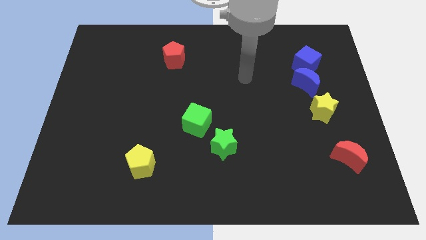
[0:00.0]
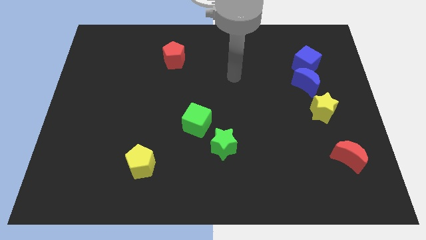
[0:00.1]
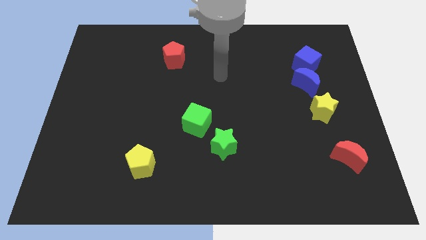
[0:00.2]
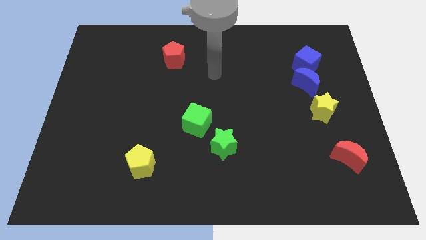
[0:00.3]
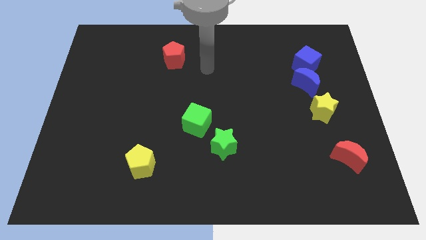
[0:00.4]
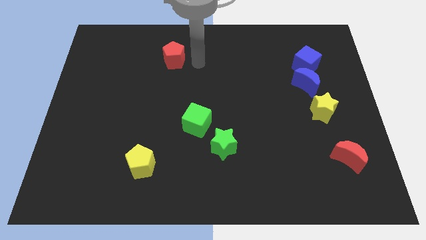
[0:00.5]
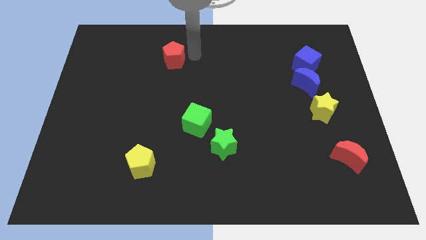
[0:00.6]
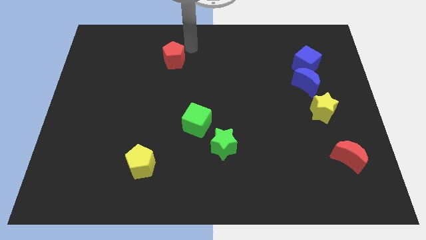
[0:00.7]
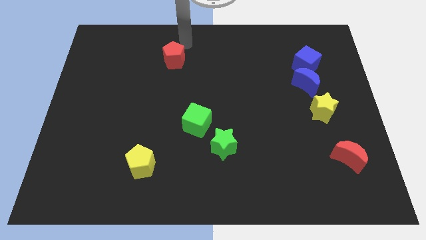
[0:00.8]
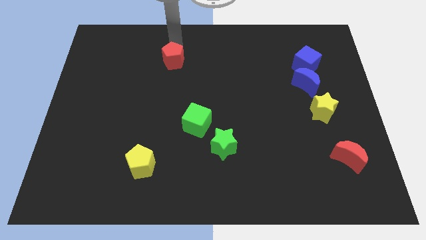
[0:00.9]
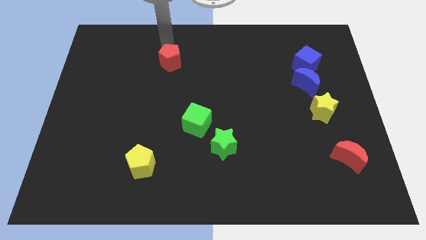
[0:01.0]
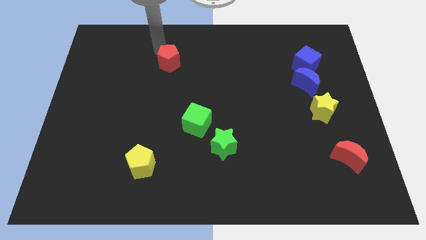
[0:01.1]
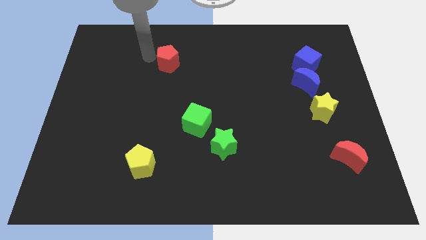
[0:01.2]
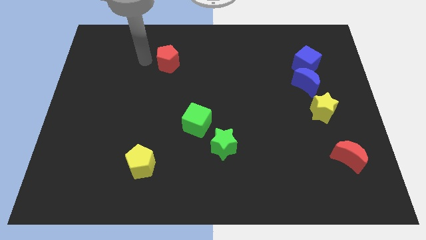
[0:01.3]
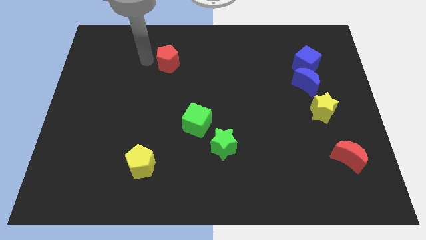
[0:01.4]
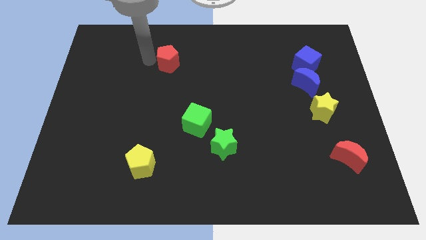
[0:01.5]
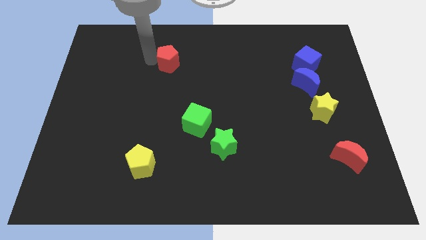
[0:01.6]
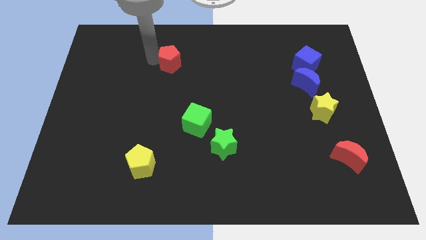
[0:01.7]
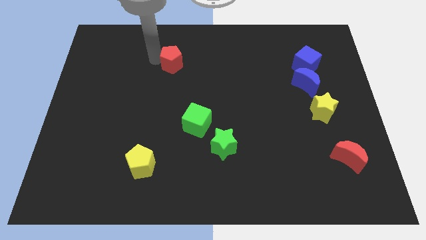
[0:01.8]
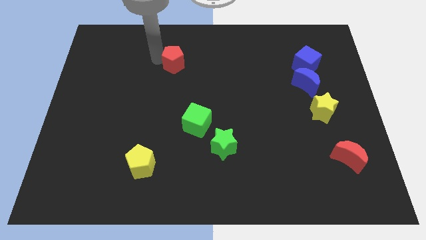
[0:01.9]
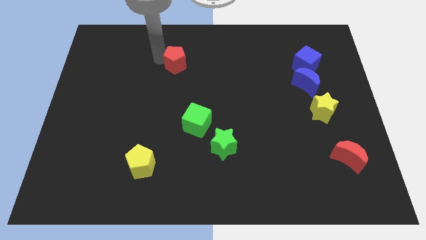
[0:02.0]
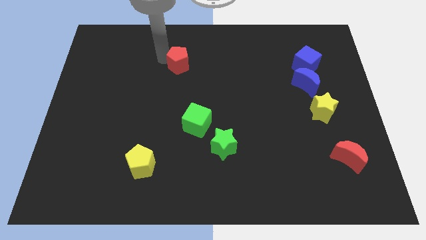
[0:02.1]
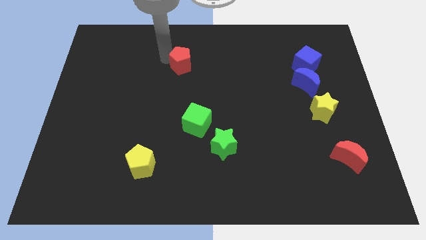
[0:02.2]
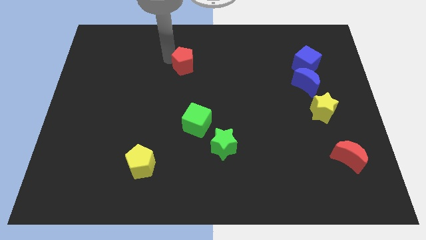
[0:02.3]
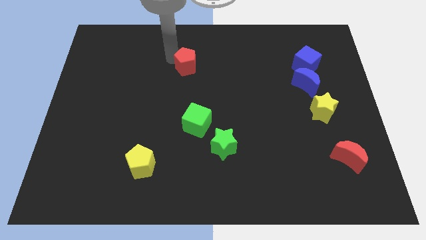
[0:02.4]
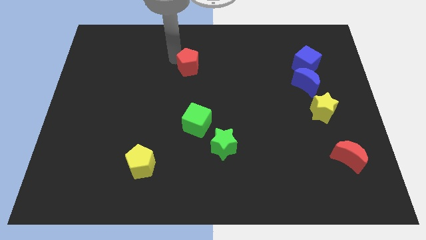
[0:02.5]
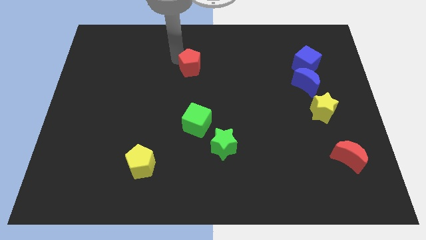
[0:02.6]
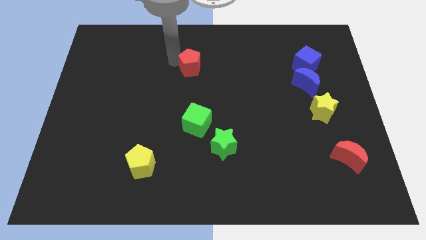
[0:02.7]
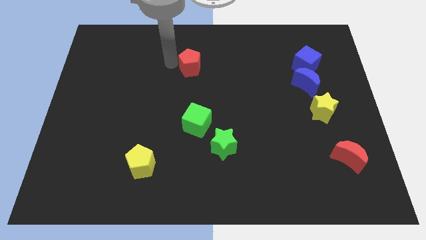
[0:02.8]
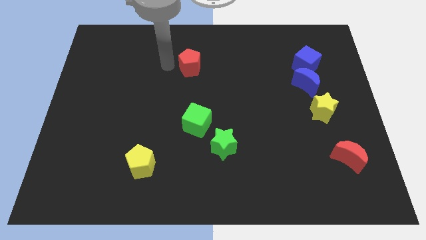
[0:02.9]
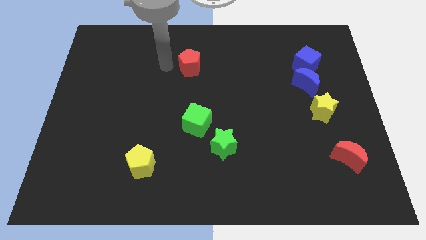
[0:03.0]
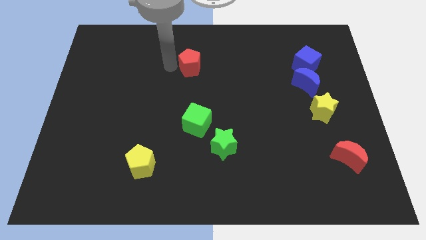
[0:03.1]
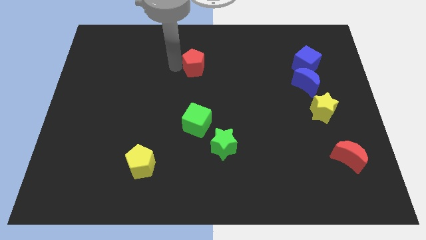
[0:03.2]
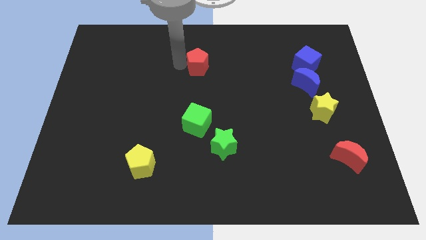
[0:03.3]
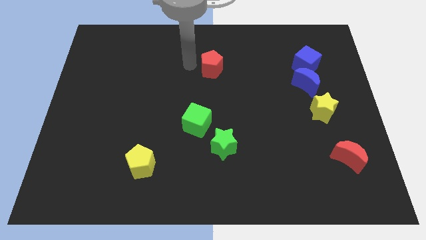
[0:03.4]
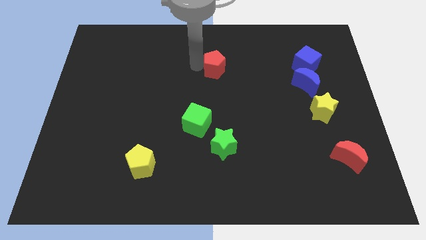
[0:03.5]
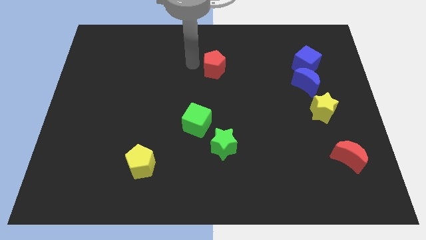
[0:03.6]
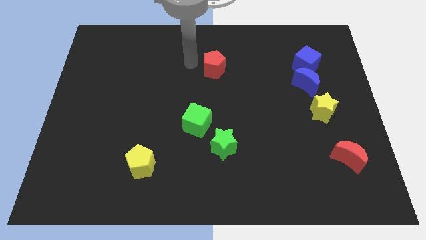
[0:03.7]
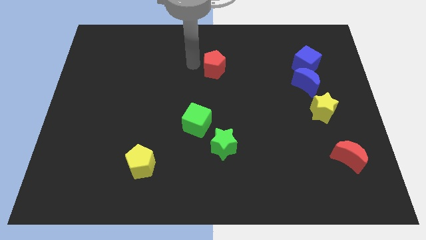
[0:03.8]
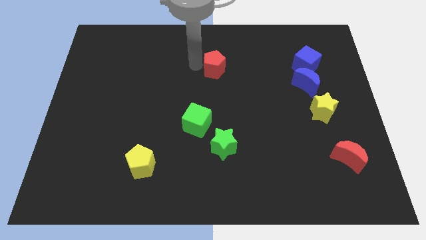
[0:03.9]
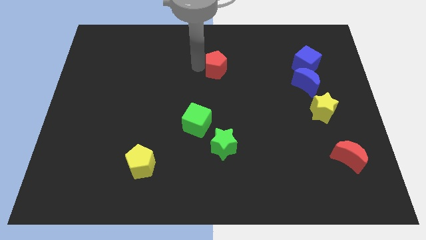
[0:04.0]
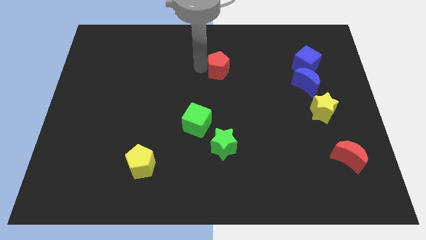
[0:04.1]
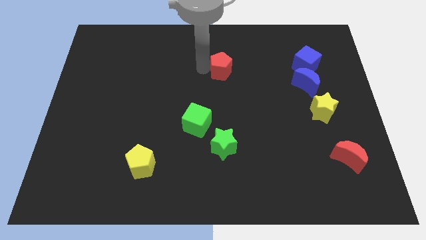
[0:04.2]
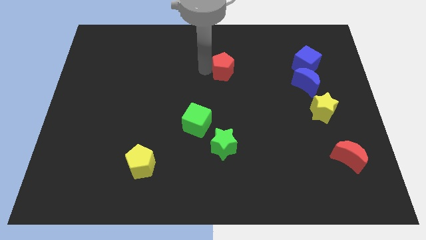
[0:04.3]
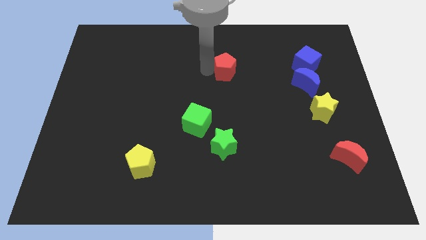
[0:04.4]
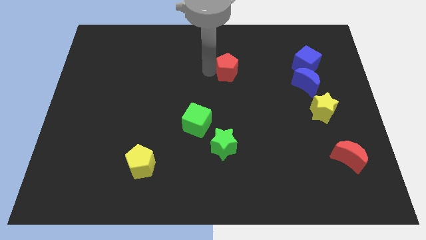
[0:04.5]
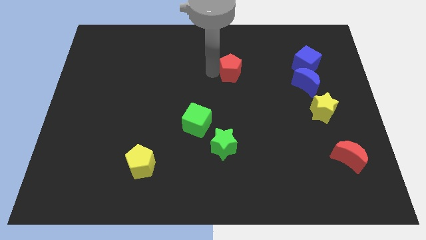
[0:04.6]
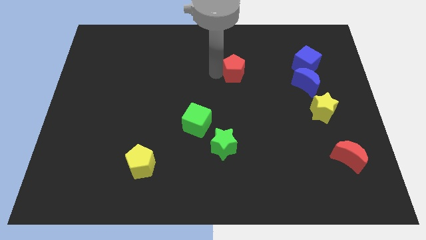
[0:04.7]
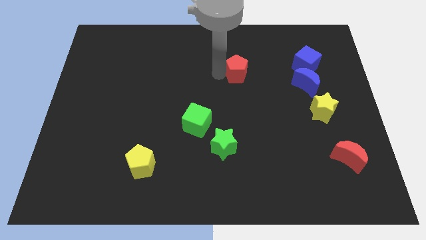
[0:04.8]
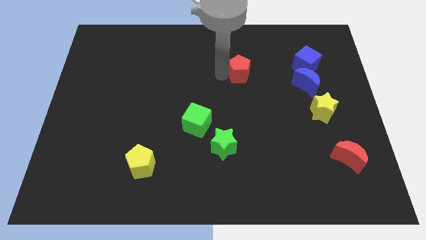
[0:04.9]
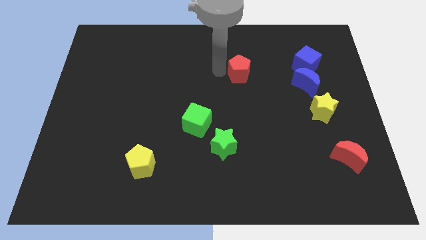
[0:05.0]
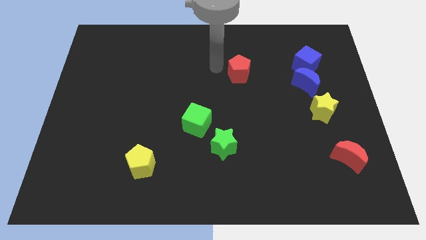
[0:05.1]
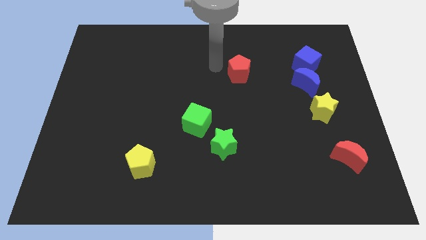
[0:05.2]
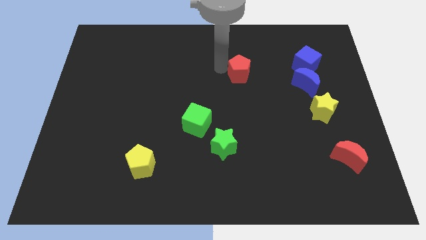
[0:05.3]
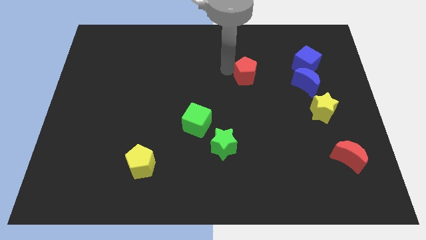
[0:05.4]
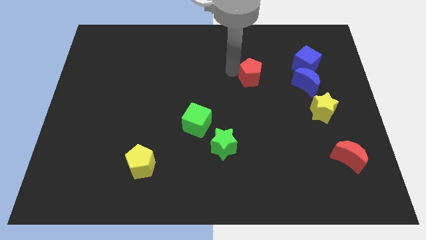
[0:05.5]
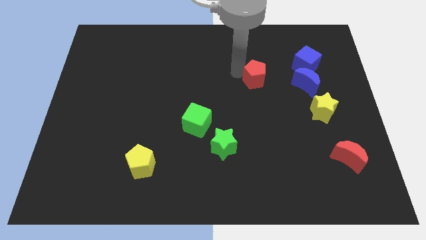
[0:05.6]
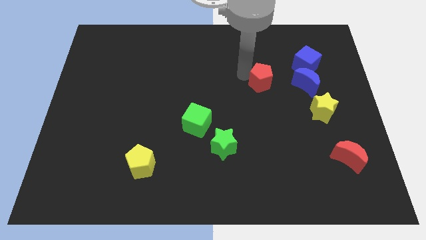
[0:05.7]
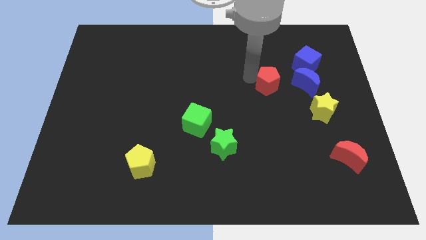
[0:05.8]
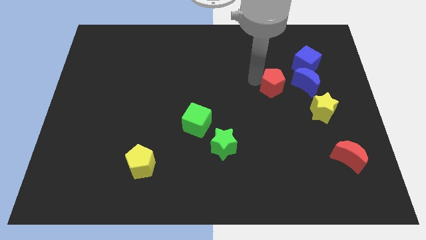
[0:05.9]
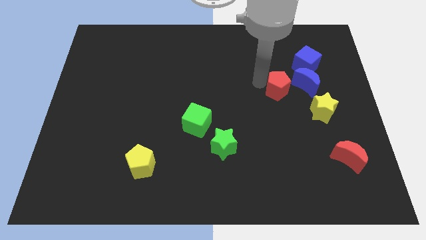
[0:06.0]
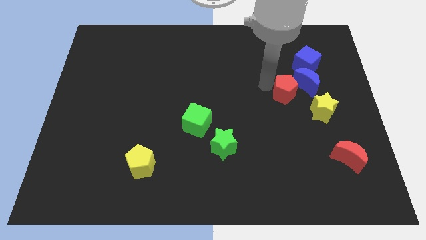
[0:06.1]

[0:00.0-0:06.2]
move the red pentagon next to the blue moon

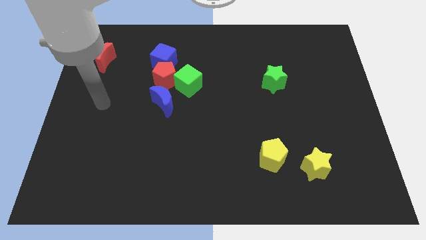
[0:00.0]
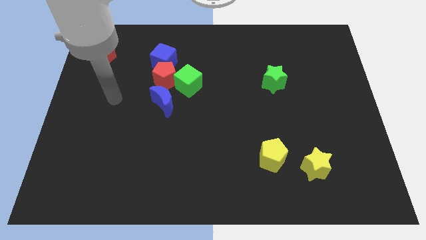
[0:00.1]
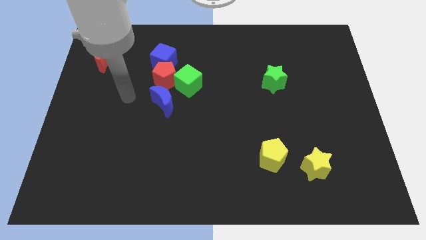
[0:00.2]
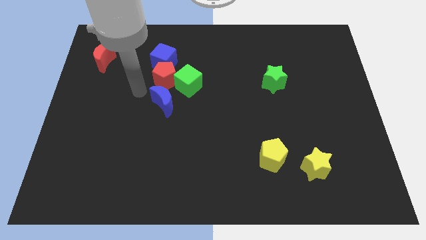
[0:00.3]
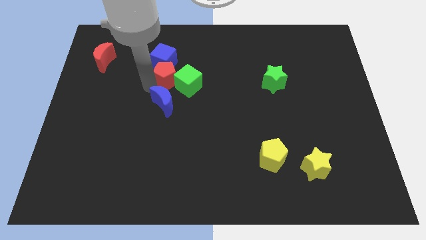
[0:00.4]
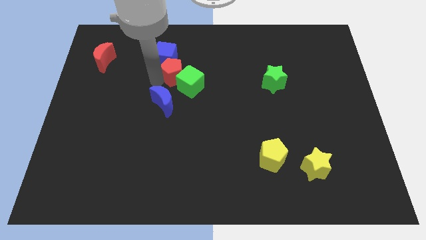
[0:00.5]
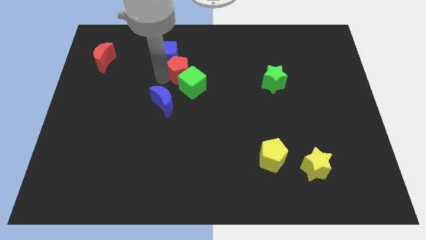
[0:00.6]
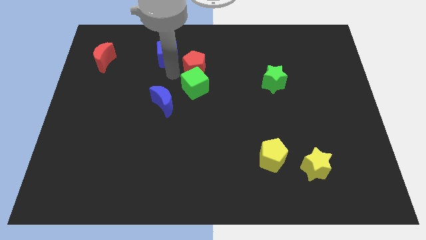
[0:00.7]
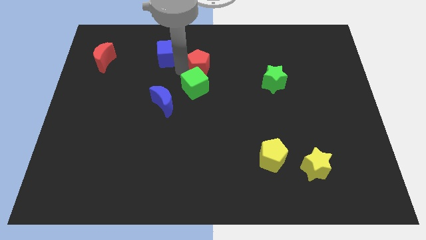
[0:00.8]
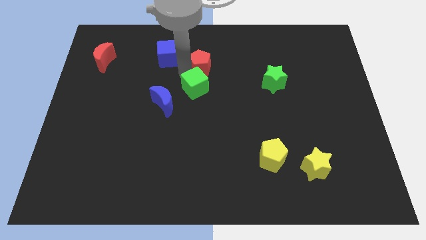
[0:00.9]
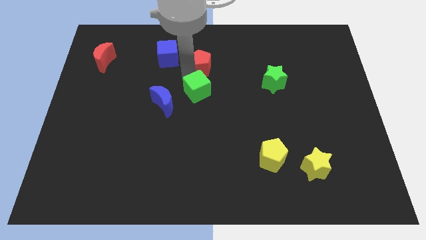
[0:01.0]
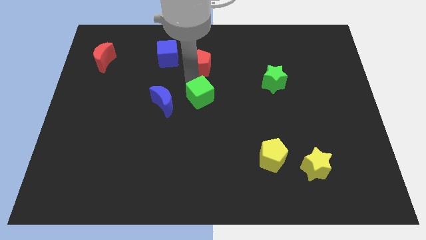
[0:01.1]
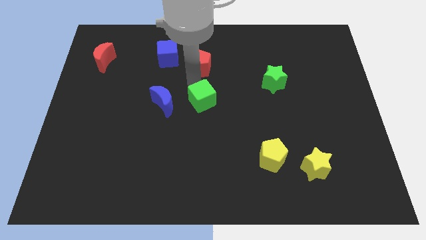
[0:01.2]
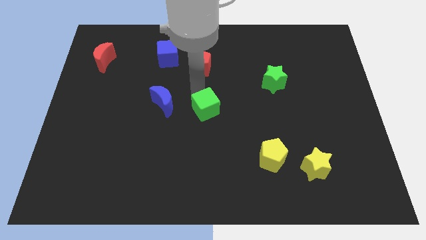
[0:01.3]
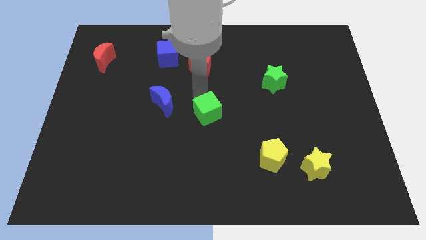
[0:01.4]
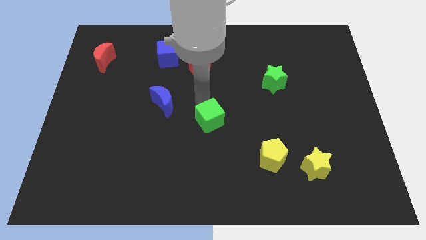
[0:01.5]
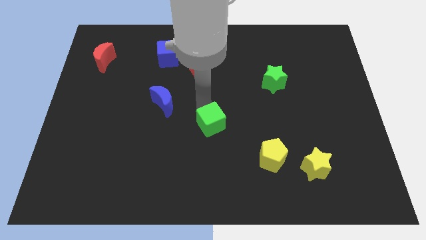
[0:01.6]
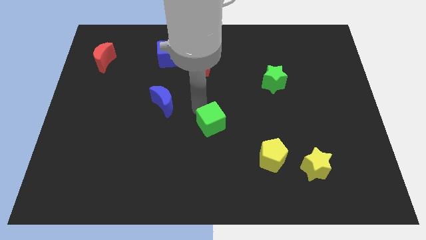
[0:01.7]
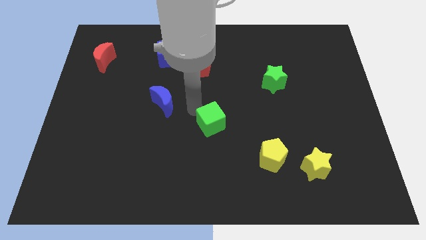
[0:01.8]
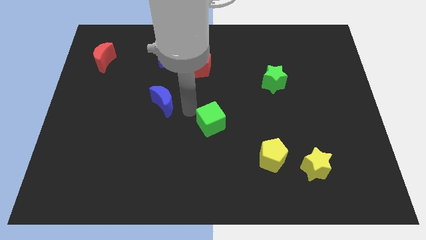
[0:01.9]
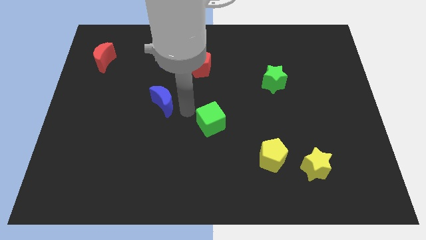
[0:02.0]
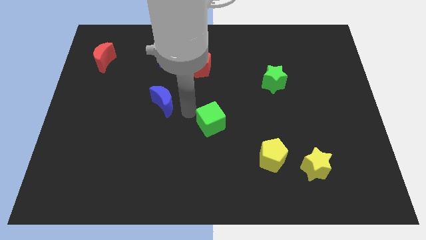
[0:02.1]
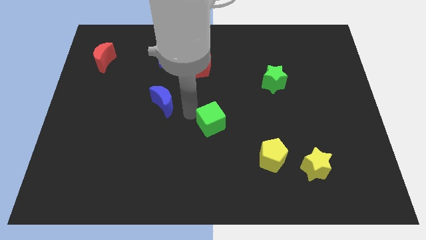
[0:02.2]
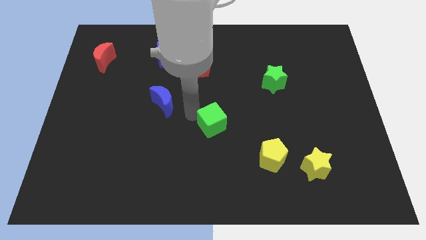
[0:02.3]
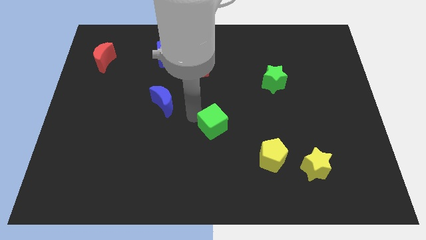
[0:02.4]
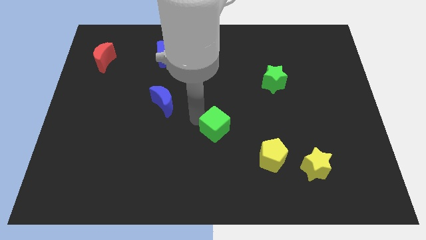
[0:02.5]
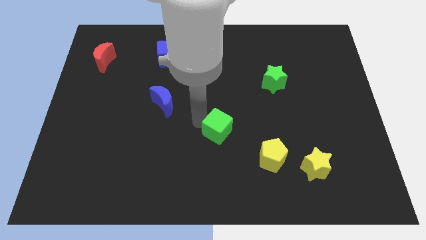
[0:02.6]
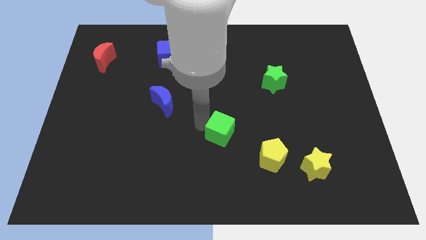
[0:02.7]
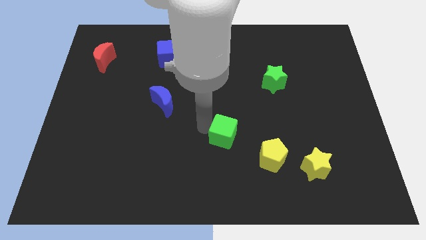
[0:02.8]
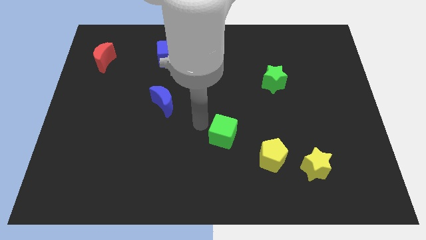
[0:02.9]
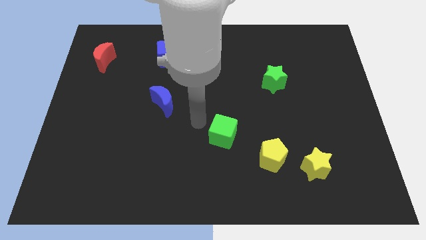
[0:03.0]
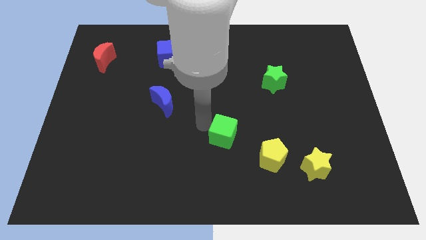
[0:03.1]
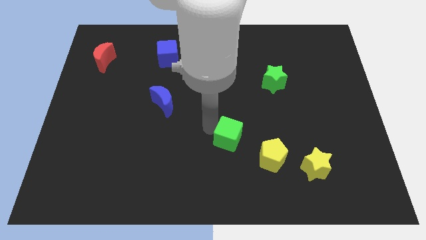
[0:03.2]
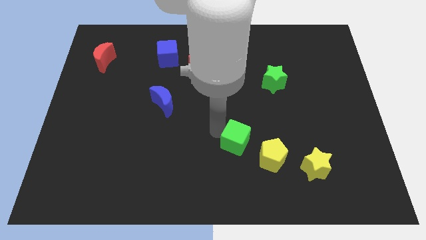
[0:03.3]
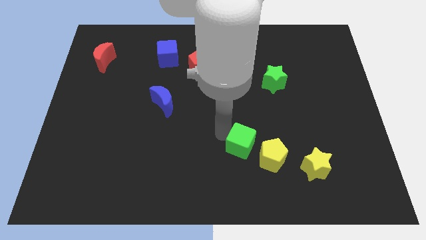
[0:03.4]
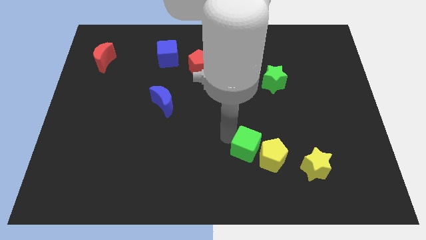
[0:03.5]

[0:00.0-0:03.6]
move the green cube close to the yellow pentagon
